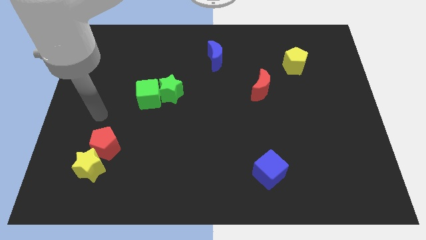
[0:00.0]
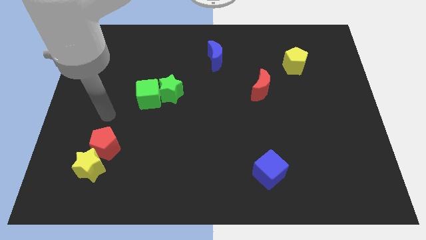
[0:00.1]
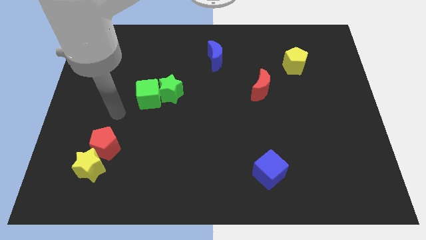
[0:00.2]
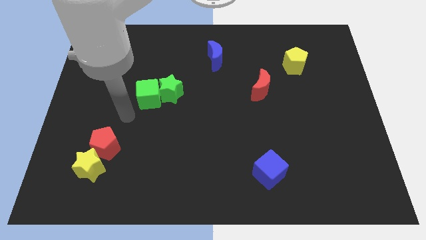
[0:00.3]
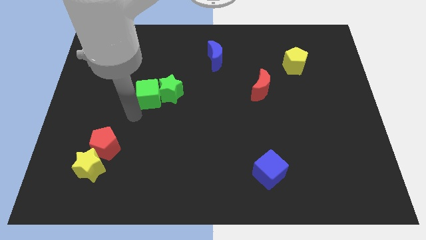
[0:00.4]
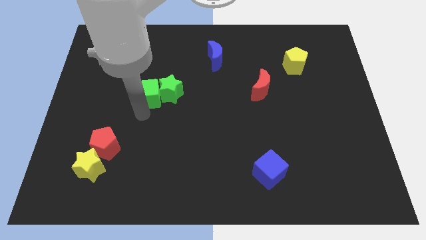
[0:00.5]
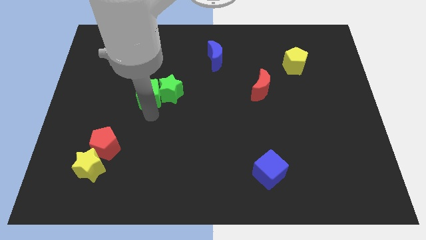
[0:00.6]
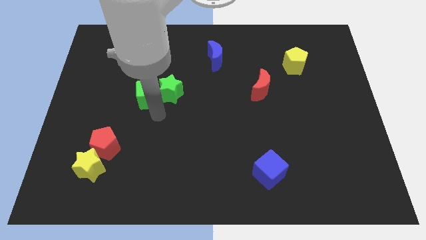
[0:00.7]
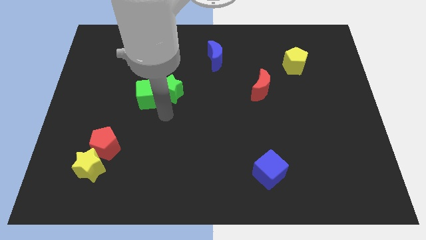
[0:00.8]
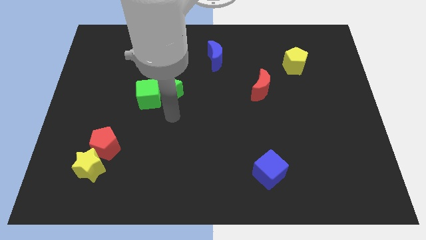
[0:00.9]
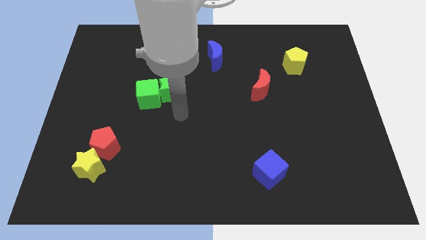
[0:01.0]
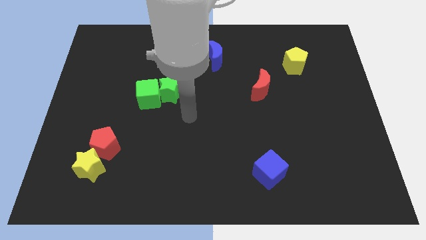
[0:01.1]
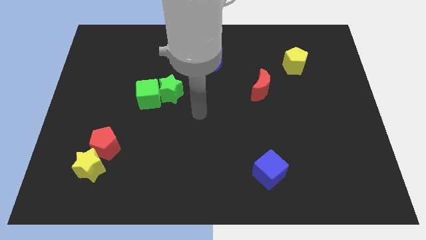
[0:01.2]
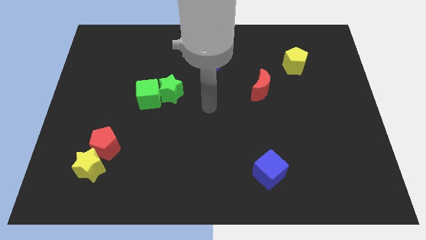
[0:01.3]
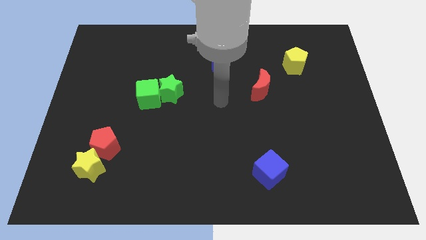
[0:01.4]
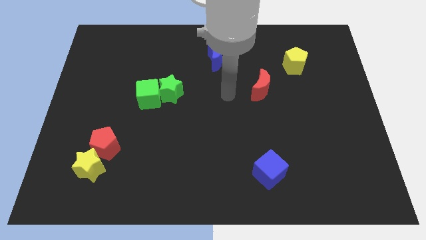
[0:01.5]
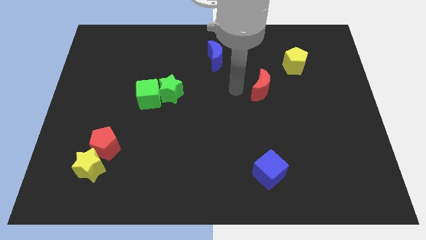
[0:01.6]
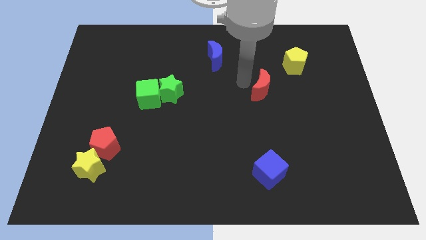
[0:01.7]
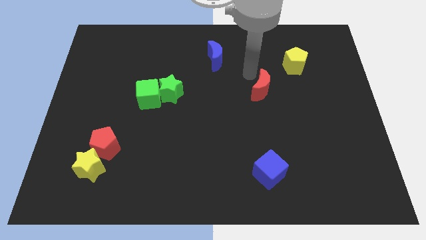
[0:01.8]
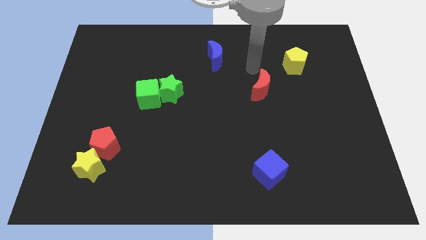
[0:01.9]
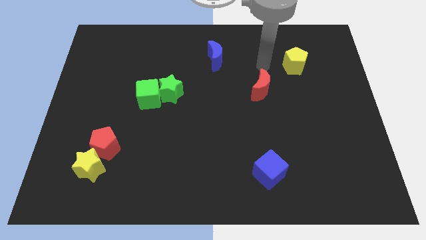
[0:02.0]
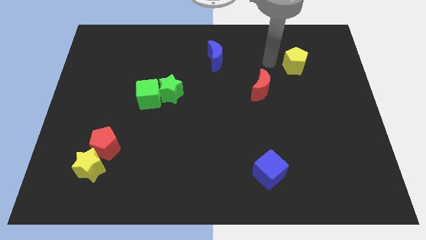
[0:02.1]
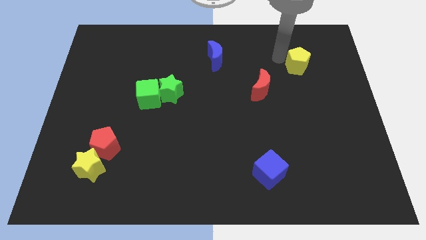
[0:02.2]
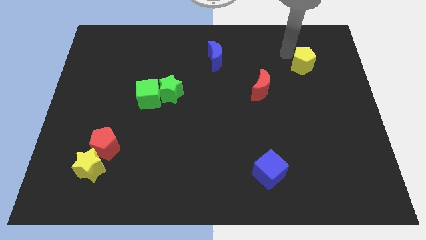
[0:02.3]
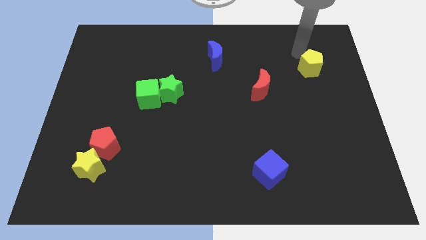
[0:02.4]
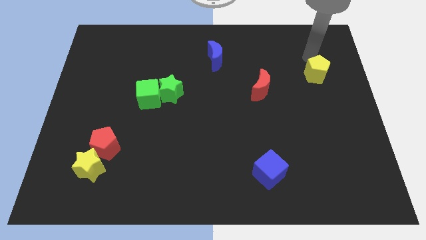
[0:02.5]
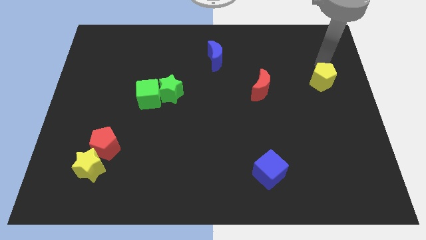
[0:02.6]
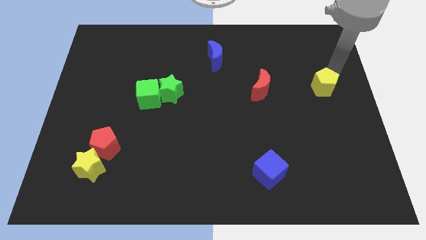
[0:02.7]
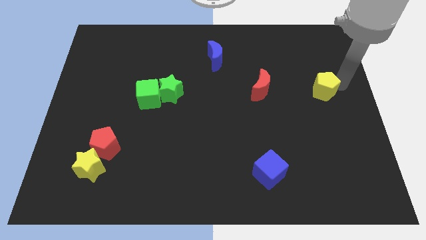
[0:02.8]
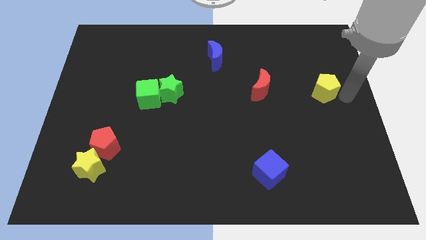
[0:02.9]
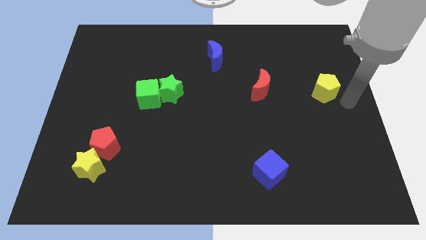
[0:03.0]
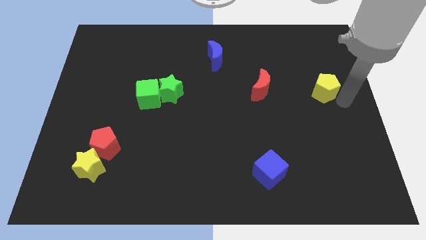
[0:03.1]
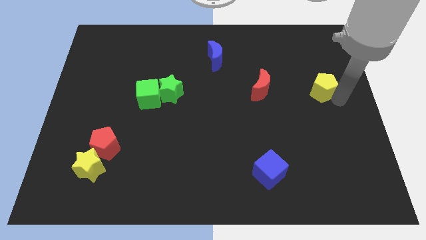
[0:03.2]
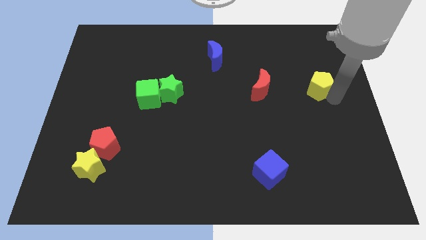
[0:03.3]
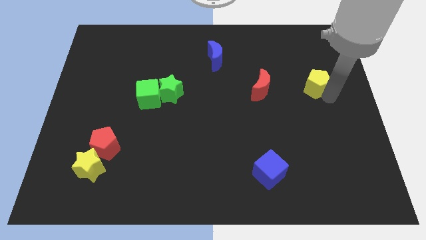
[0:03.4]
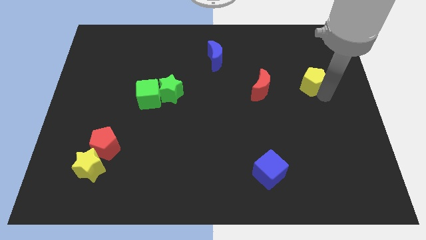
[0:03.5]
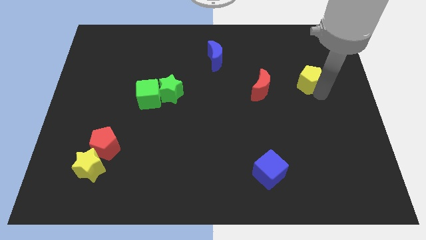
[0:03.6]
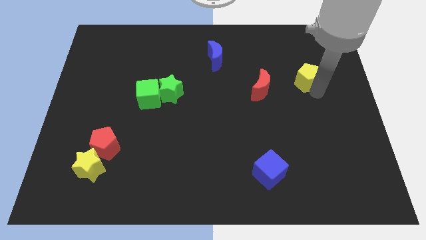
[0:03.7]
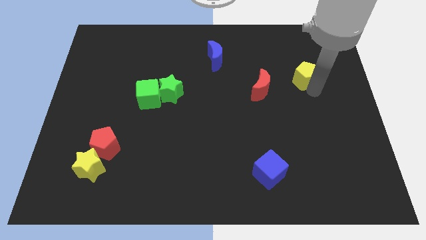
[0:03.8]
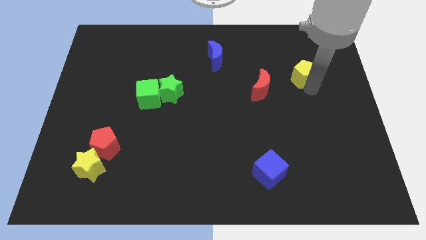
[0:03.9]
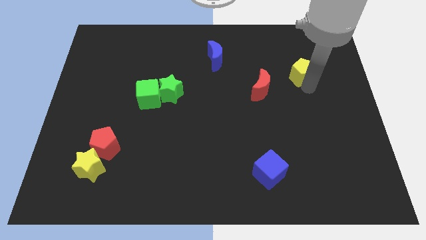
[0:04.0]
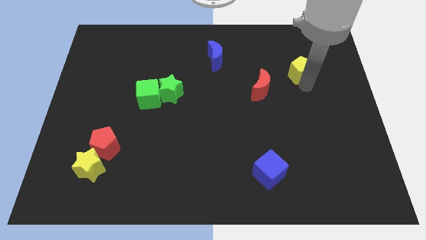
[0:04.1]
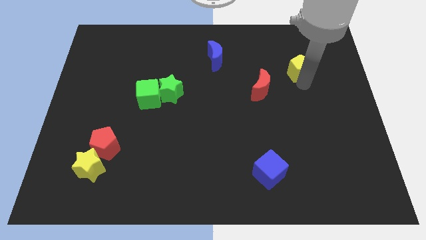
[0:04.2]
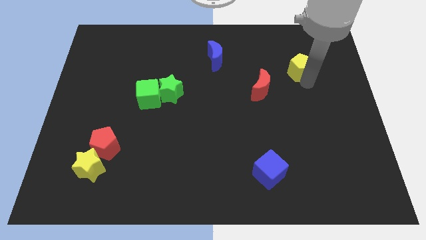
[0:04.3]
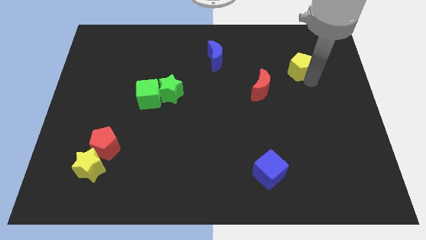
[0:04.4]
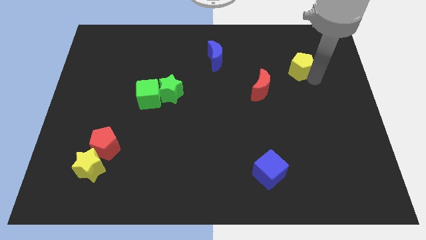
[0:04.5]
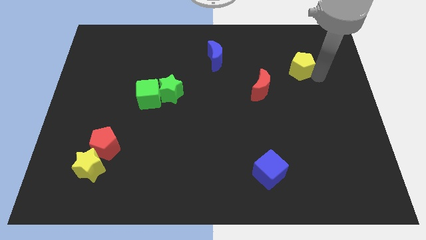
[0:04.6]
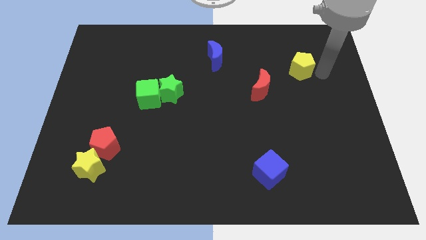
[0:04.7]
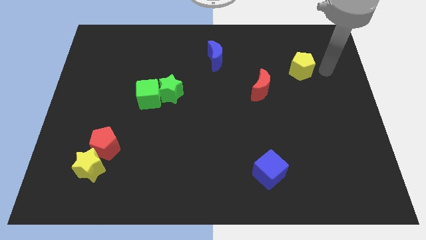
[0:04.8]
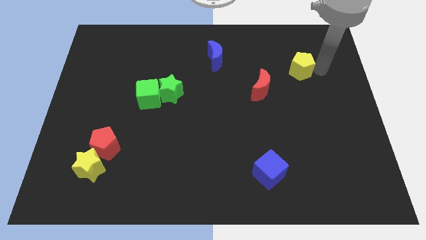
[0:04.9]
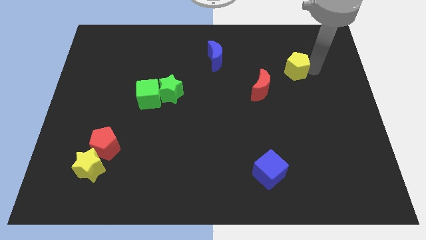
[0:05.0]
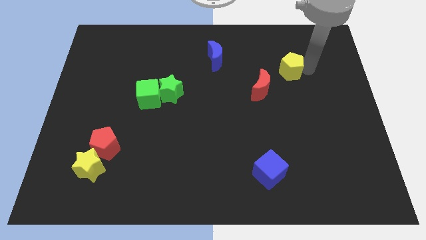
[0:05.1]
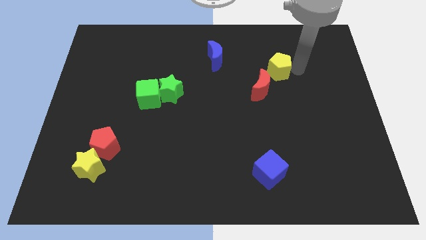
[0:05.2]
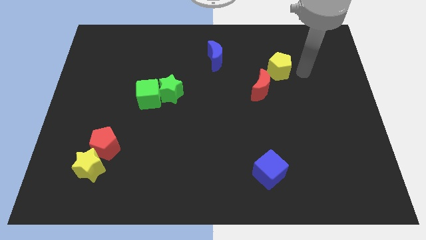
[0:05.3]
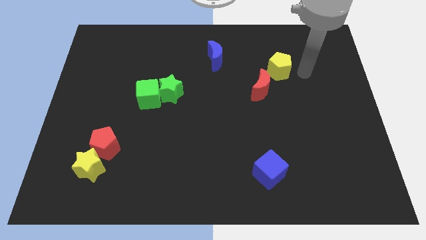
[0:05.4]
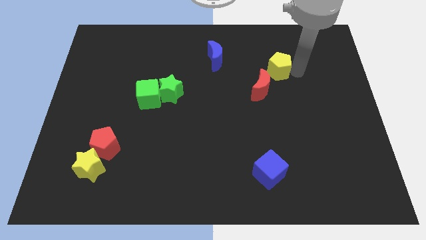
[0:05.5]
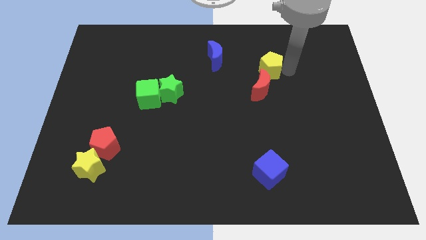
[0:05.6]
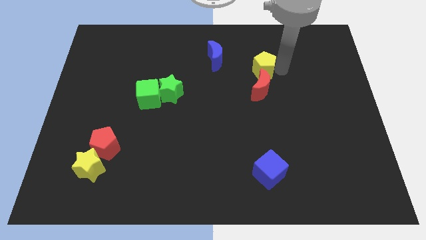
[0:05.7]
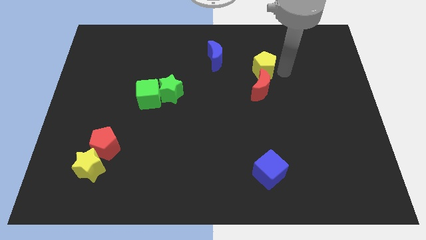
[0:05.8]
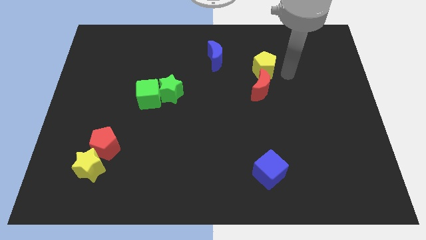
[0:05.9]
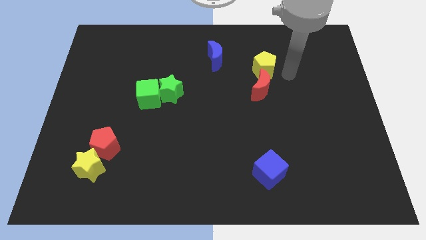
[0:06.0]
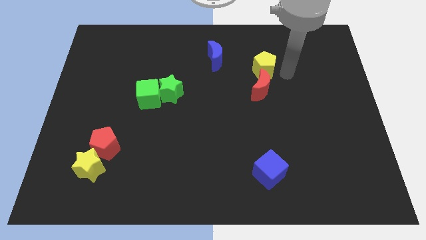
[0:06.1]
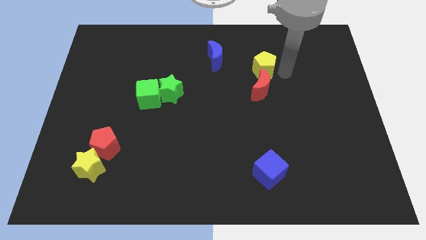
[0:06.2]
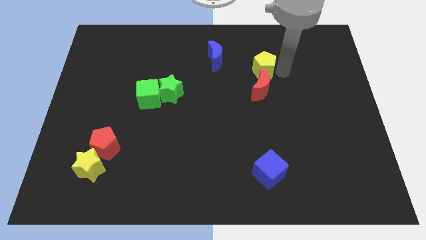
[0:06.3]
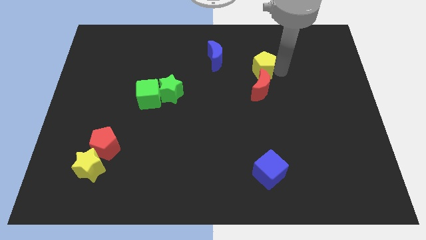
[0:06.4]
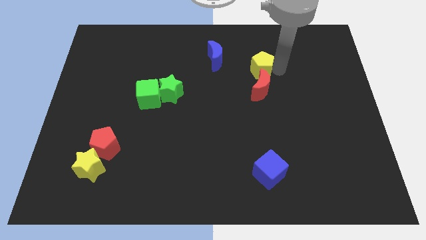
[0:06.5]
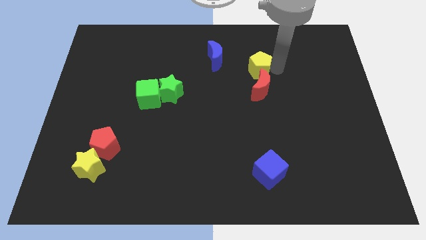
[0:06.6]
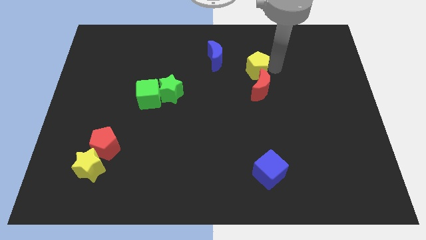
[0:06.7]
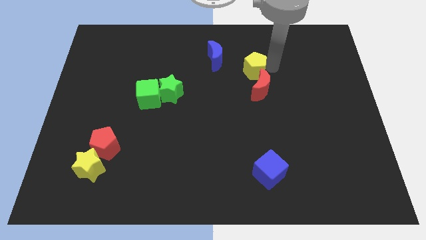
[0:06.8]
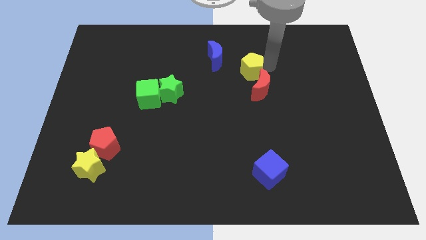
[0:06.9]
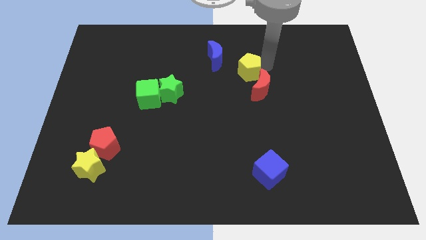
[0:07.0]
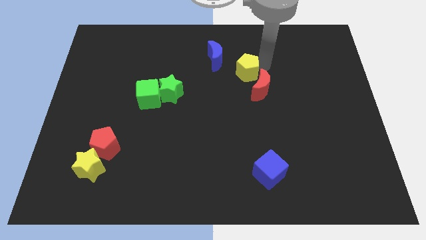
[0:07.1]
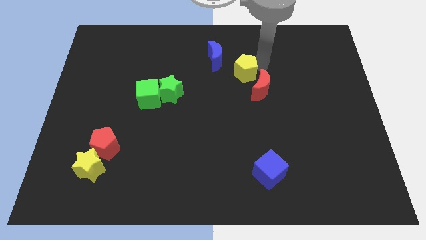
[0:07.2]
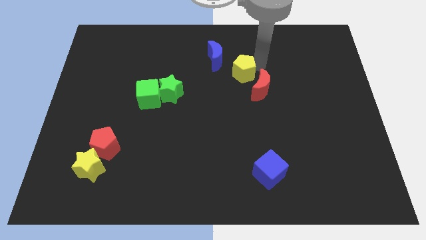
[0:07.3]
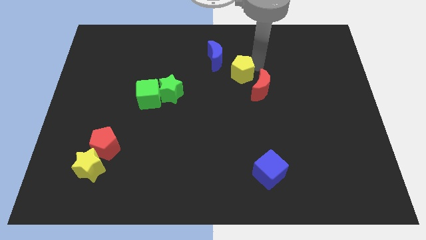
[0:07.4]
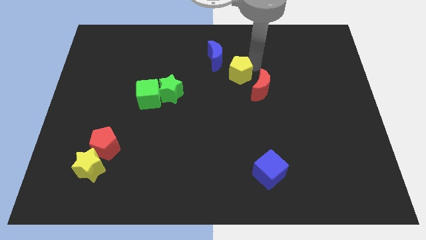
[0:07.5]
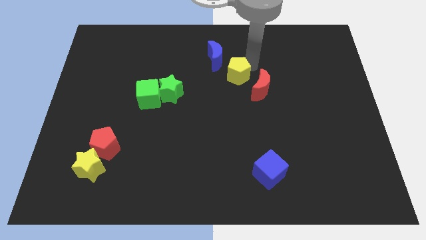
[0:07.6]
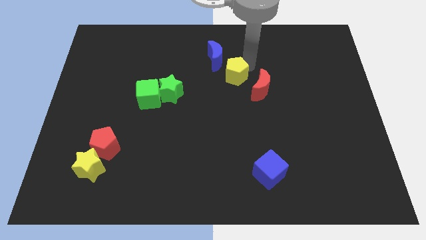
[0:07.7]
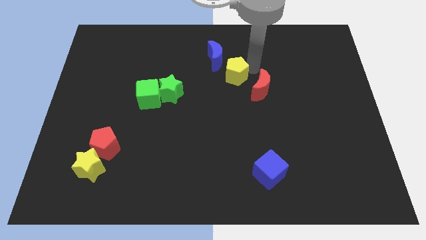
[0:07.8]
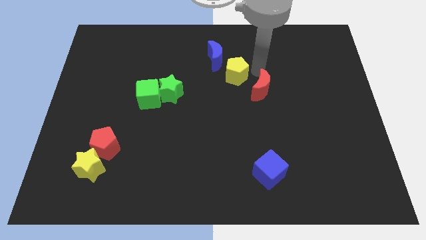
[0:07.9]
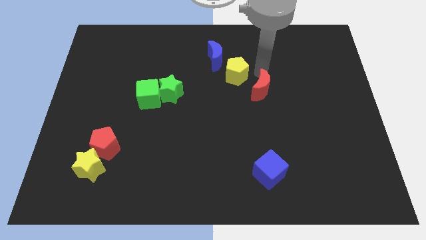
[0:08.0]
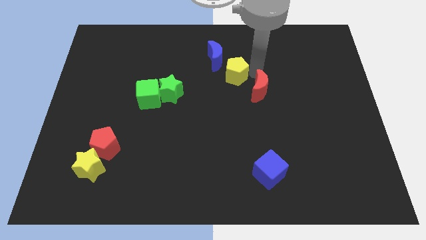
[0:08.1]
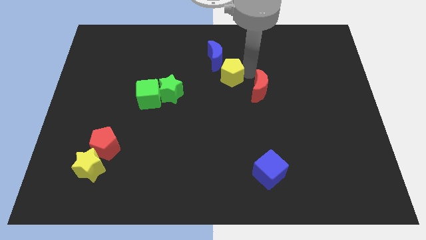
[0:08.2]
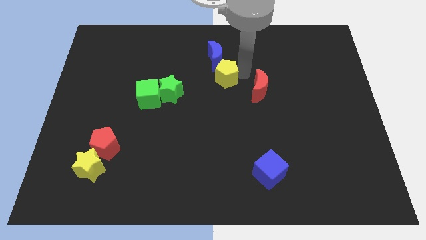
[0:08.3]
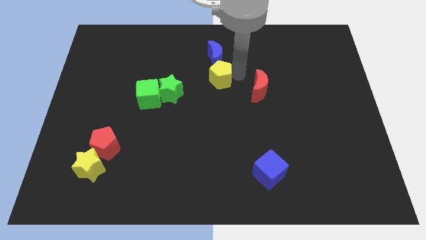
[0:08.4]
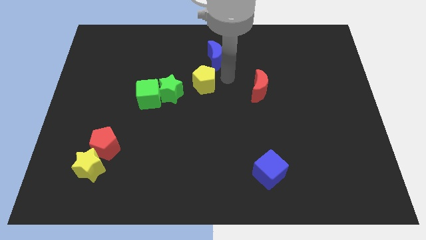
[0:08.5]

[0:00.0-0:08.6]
move the yellow pentagon to the left
